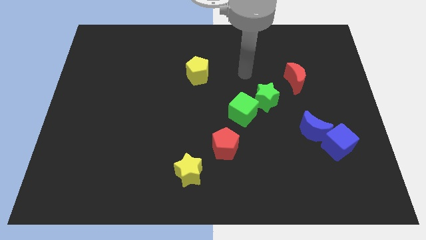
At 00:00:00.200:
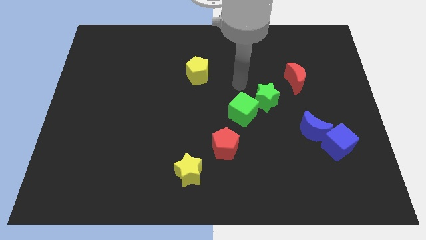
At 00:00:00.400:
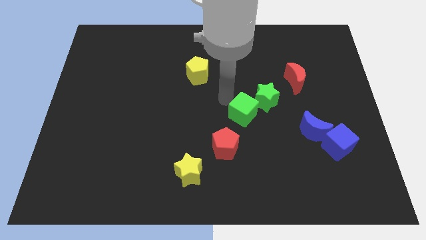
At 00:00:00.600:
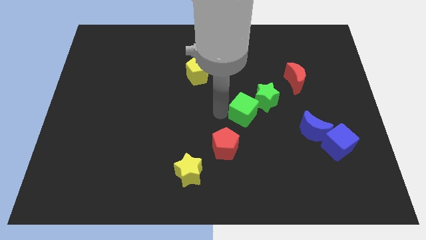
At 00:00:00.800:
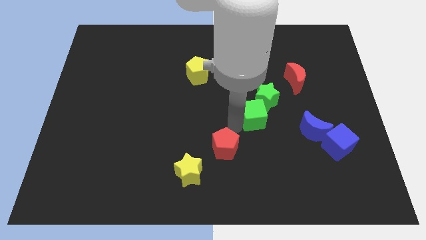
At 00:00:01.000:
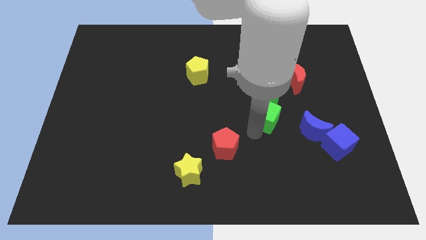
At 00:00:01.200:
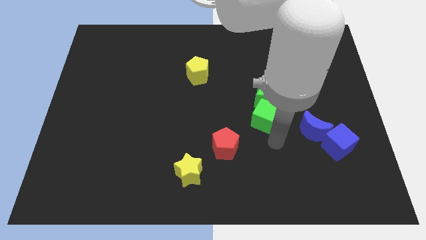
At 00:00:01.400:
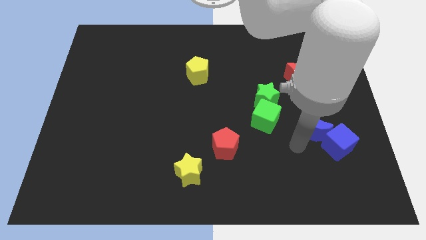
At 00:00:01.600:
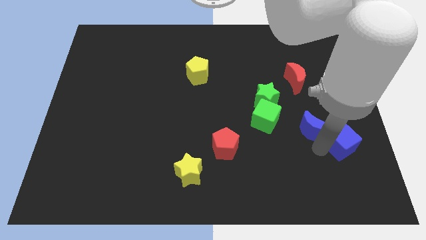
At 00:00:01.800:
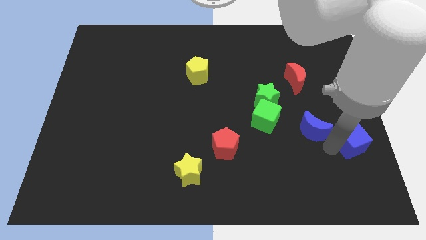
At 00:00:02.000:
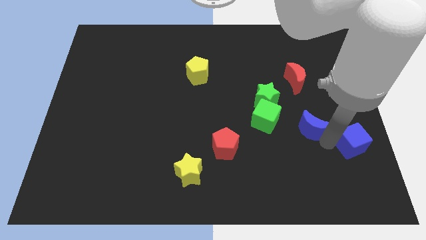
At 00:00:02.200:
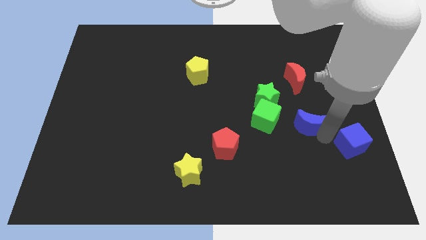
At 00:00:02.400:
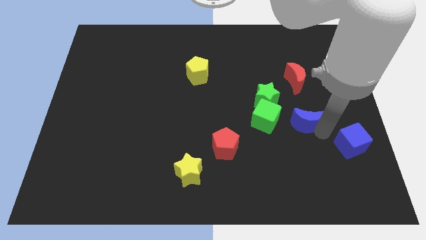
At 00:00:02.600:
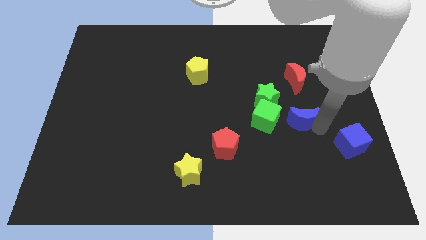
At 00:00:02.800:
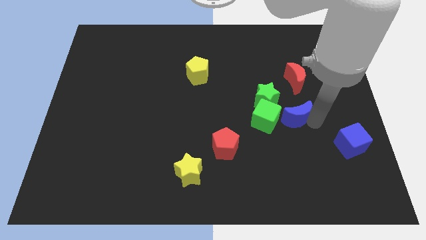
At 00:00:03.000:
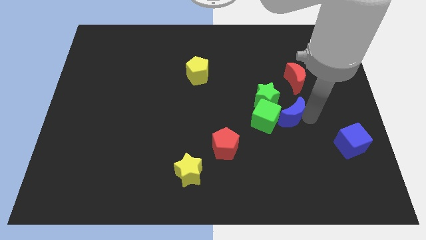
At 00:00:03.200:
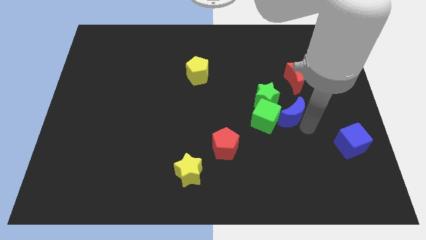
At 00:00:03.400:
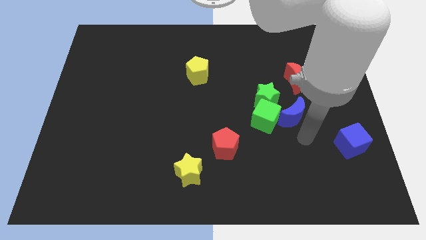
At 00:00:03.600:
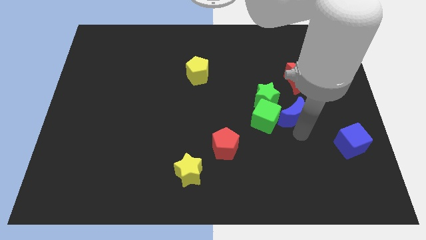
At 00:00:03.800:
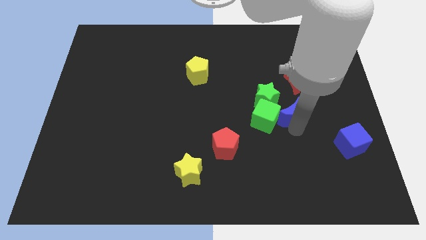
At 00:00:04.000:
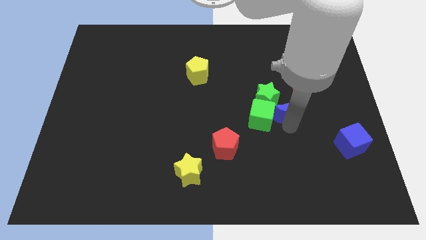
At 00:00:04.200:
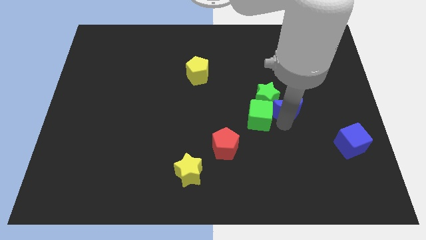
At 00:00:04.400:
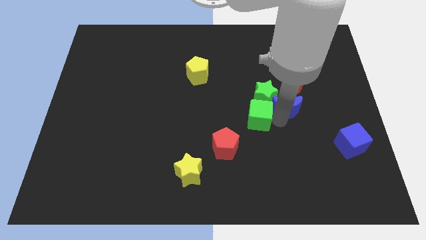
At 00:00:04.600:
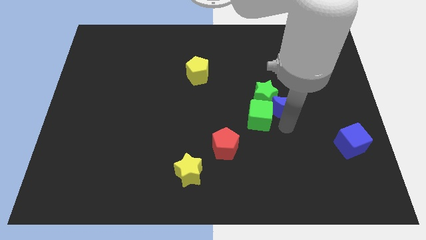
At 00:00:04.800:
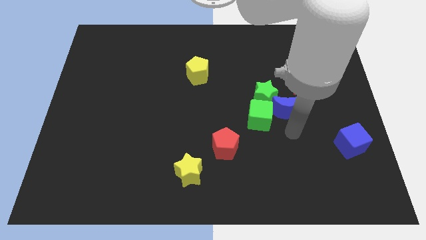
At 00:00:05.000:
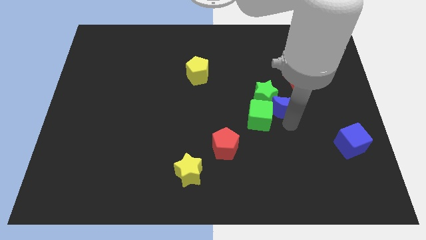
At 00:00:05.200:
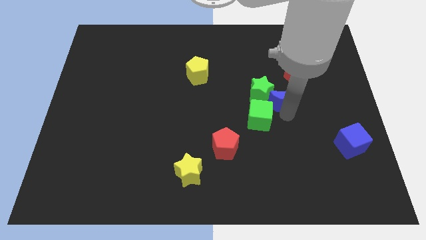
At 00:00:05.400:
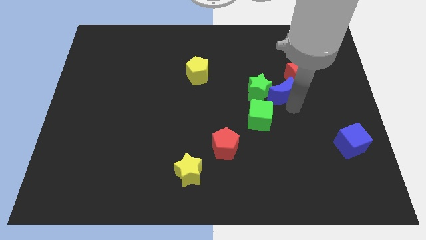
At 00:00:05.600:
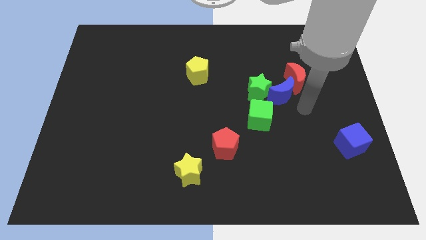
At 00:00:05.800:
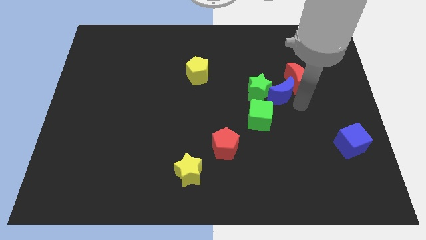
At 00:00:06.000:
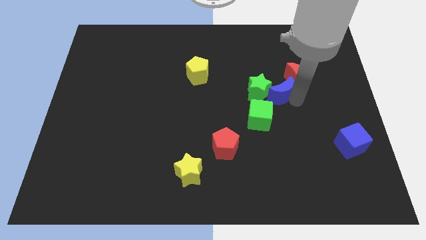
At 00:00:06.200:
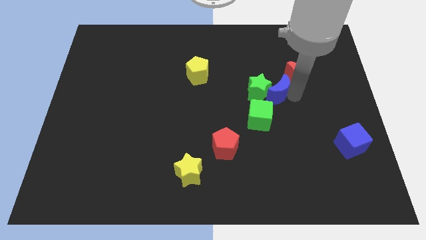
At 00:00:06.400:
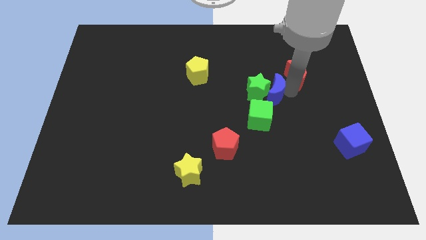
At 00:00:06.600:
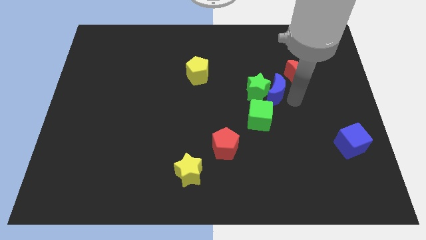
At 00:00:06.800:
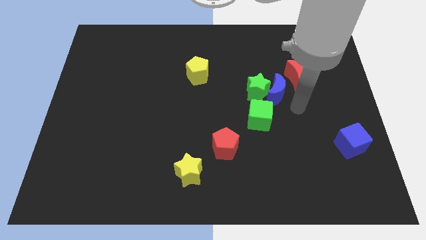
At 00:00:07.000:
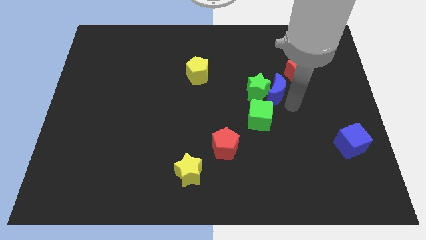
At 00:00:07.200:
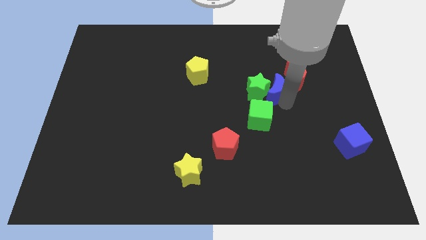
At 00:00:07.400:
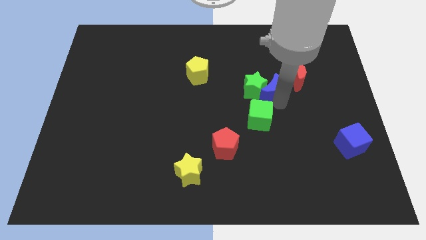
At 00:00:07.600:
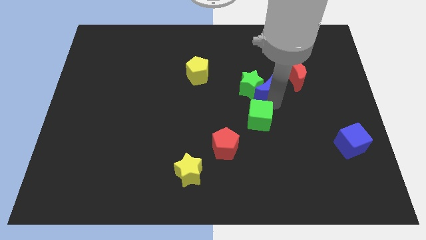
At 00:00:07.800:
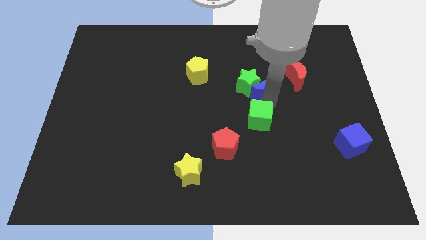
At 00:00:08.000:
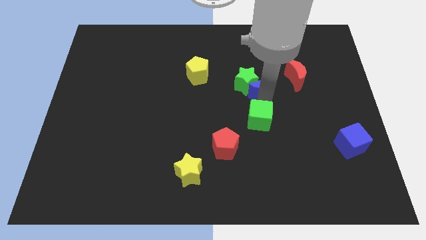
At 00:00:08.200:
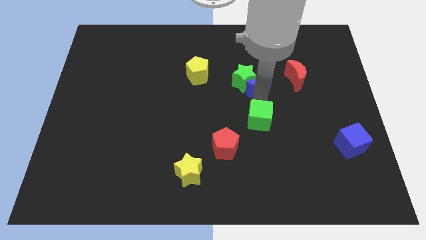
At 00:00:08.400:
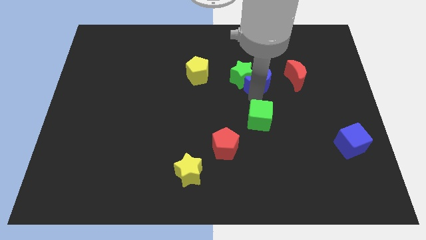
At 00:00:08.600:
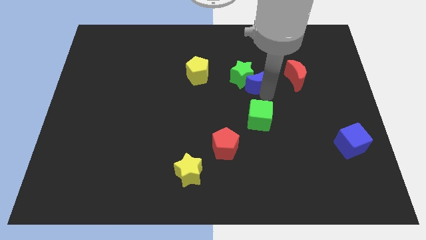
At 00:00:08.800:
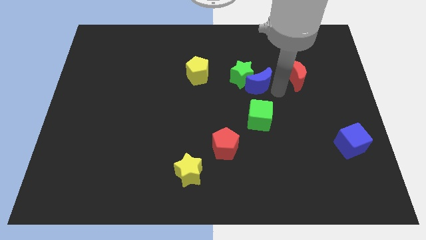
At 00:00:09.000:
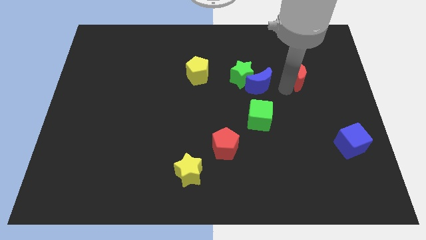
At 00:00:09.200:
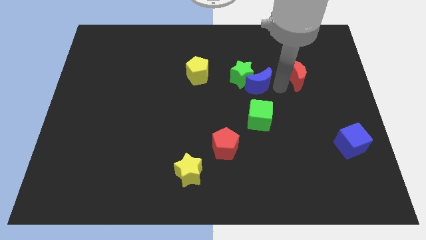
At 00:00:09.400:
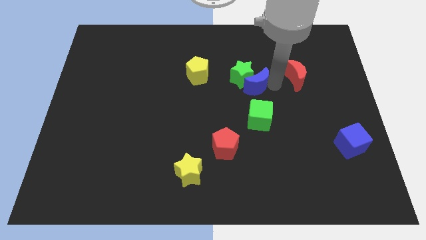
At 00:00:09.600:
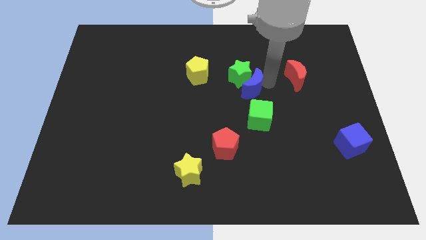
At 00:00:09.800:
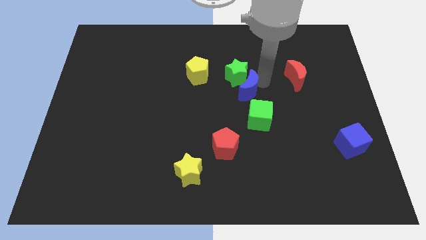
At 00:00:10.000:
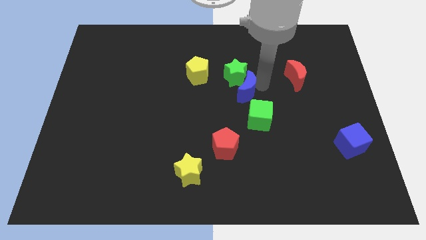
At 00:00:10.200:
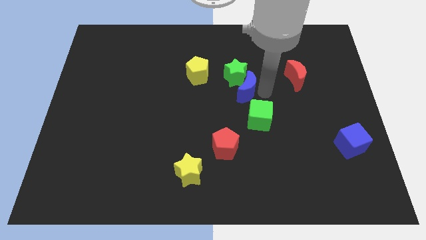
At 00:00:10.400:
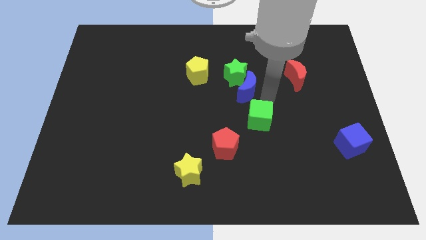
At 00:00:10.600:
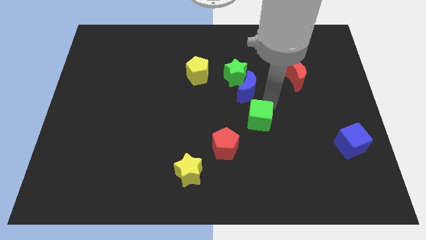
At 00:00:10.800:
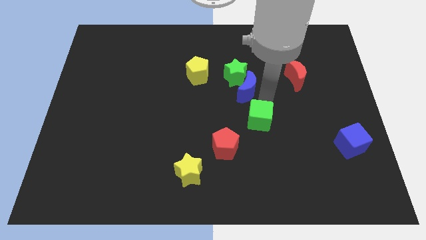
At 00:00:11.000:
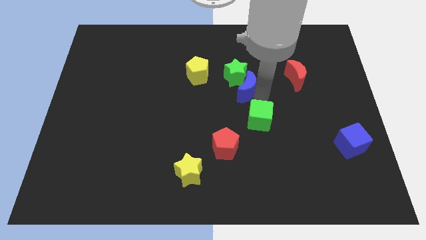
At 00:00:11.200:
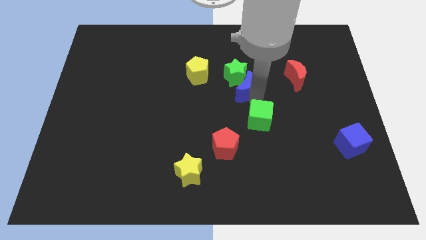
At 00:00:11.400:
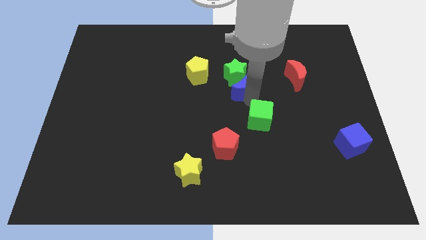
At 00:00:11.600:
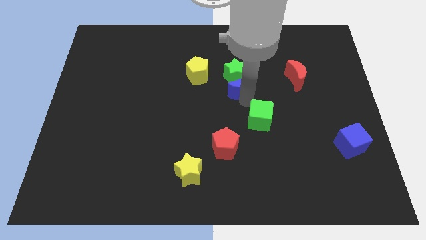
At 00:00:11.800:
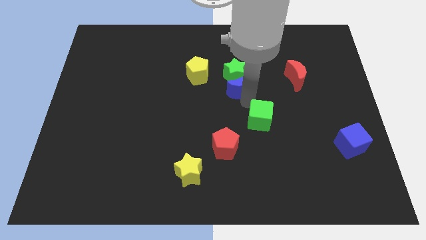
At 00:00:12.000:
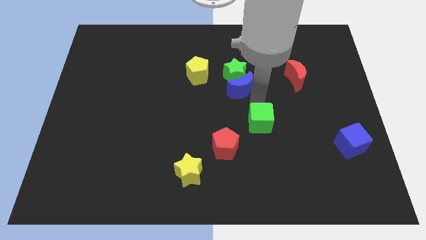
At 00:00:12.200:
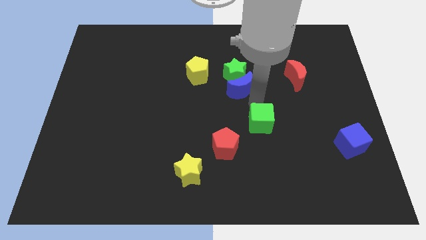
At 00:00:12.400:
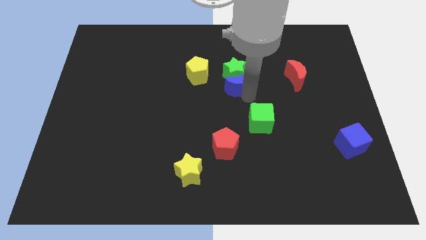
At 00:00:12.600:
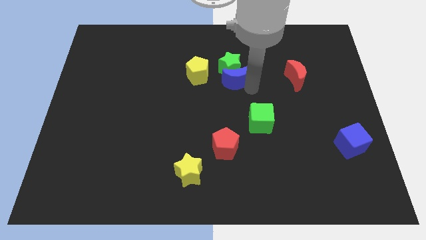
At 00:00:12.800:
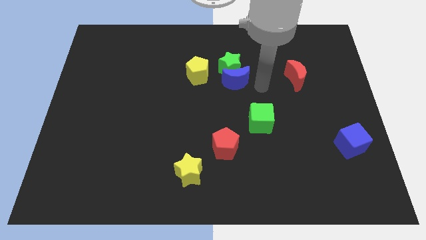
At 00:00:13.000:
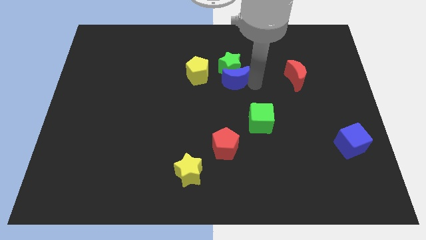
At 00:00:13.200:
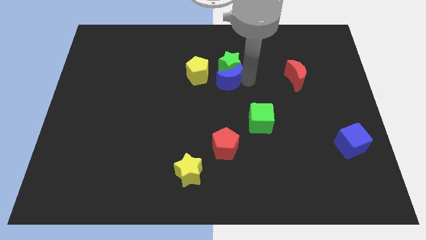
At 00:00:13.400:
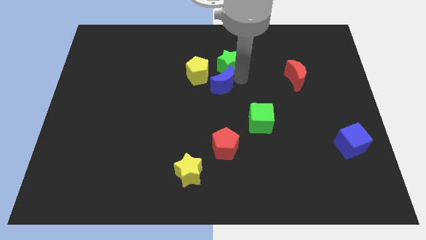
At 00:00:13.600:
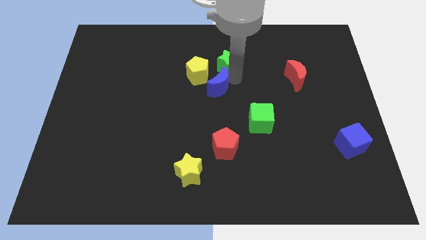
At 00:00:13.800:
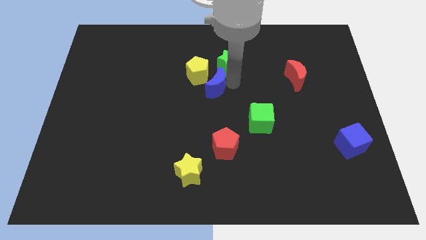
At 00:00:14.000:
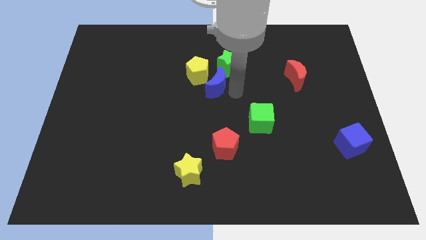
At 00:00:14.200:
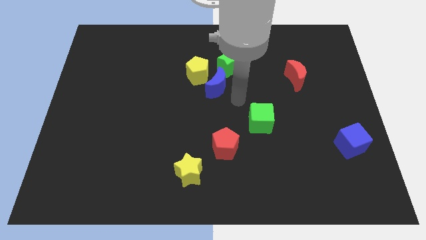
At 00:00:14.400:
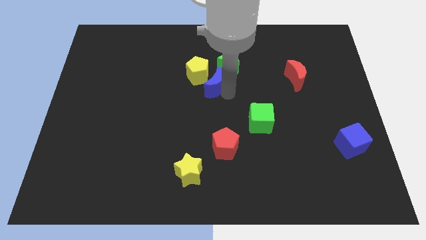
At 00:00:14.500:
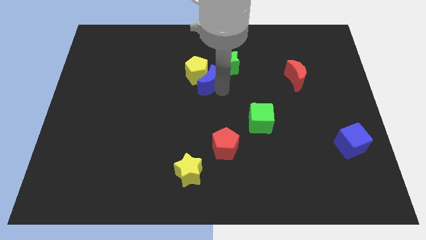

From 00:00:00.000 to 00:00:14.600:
push the blue moon close to the yellow pentagon
